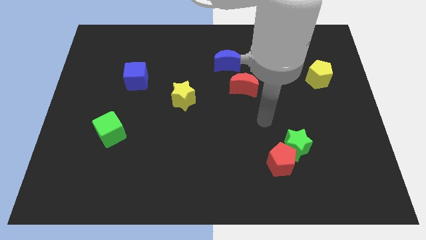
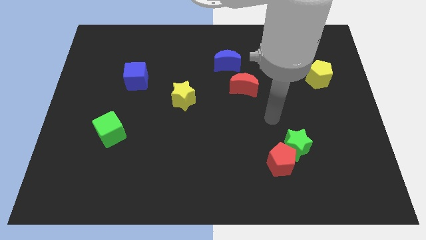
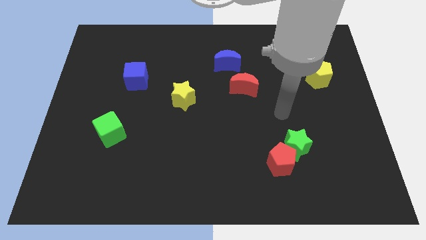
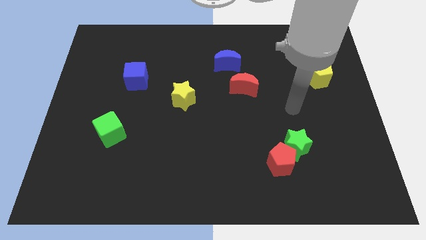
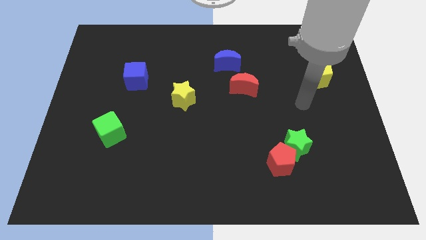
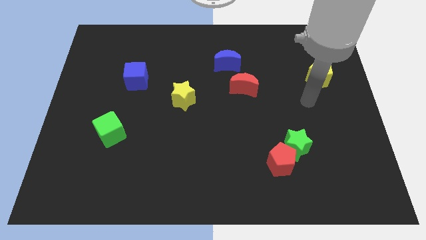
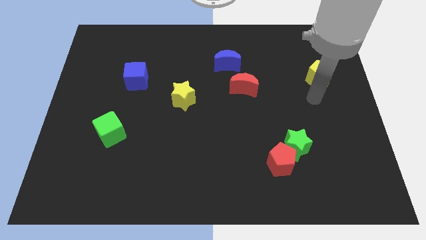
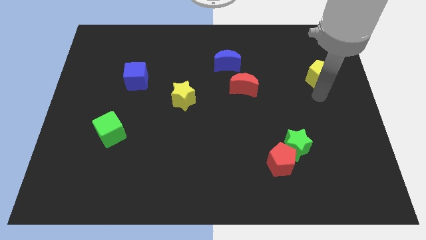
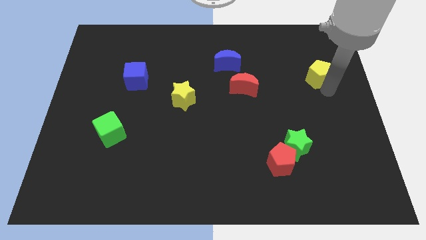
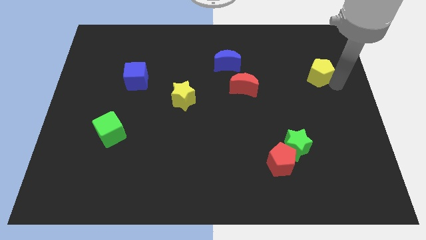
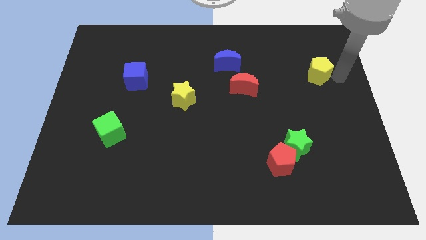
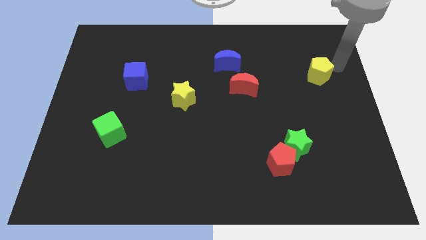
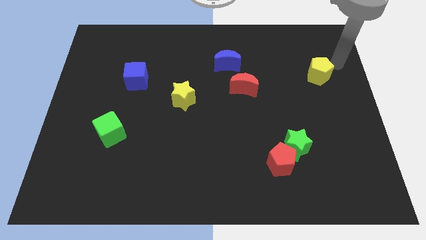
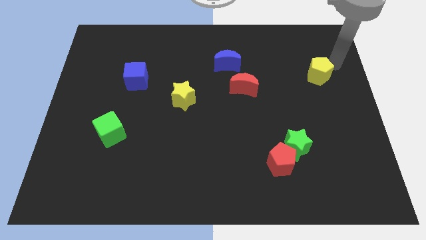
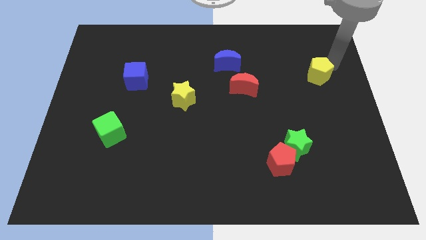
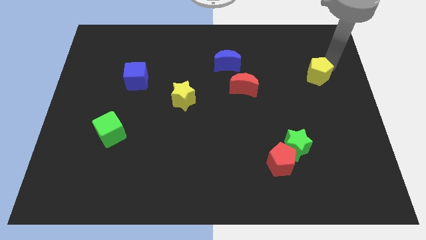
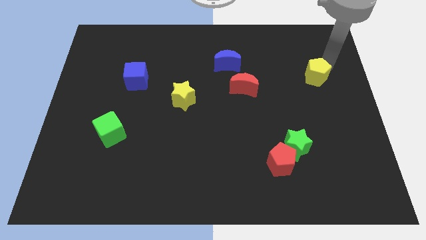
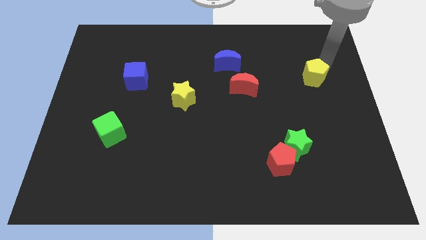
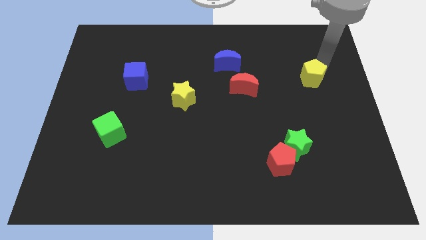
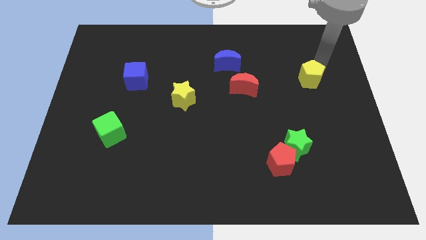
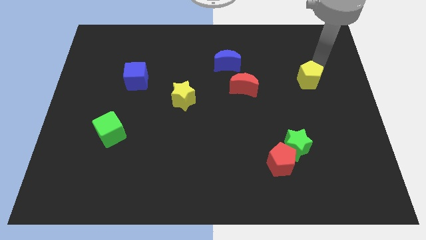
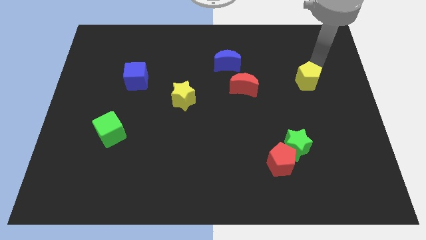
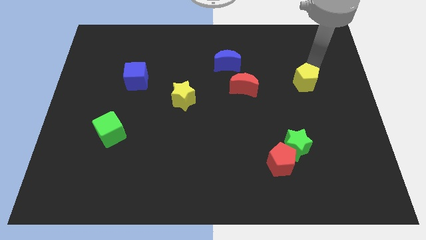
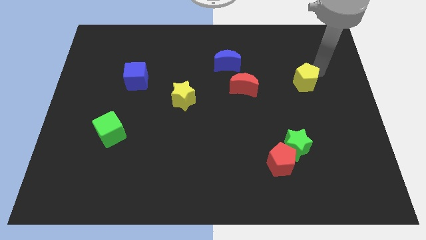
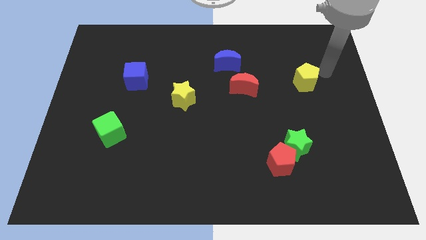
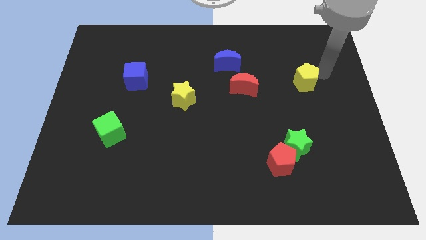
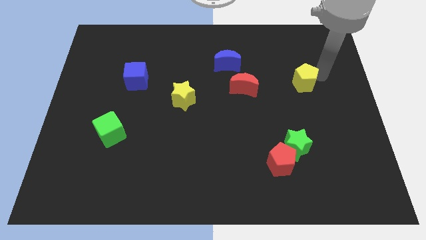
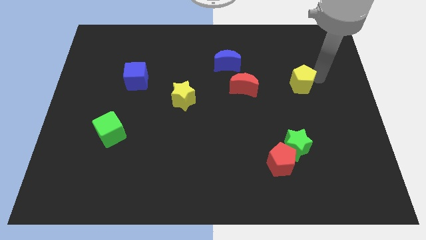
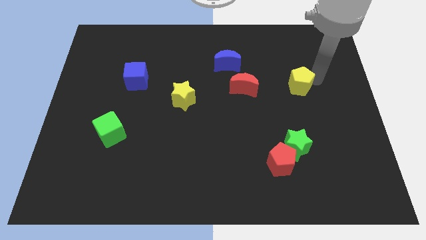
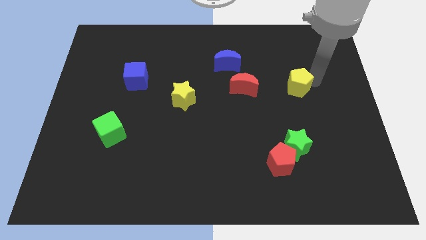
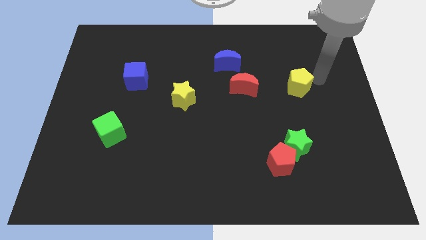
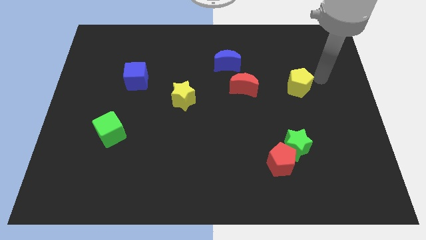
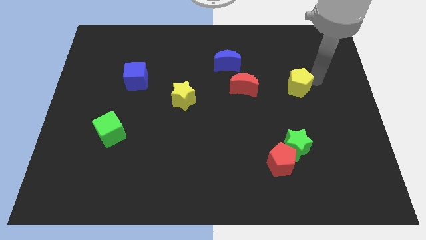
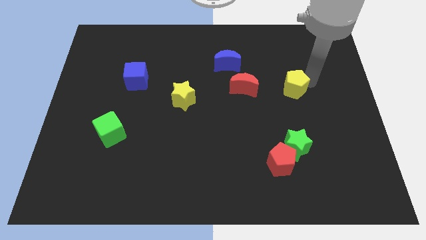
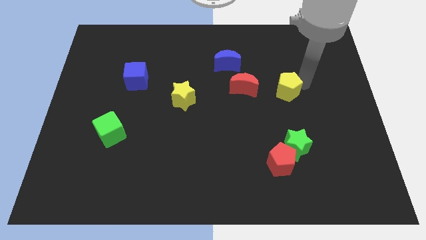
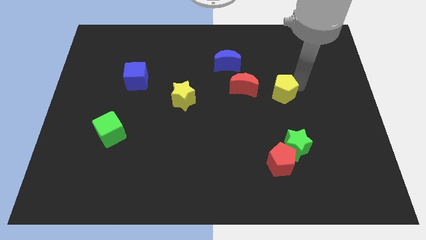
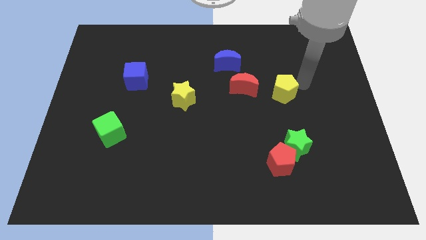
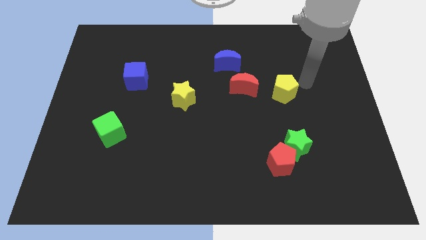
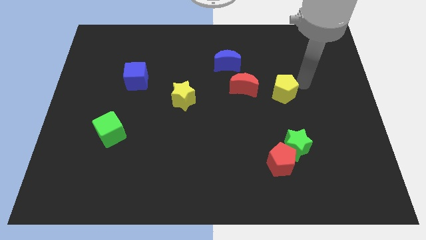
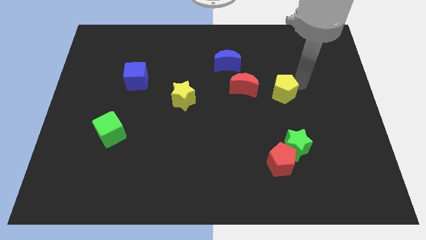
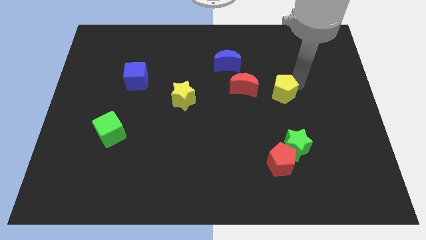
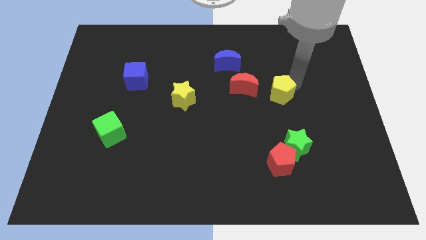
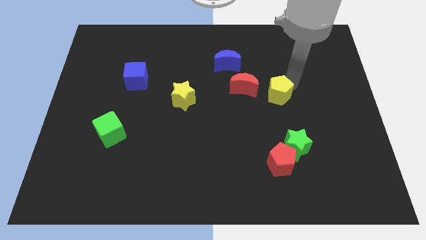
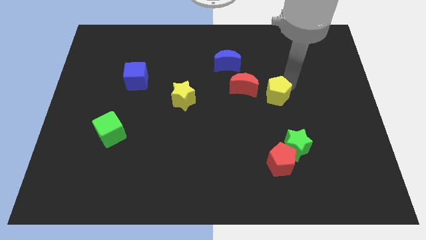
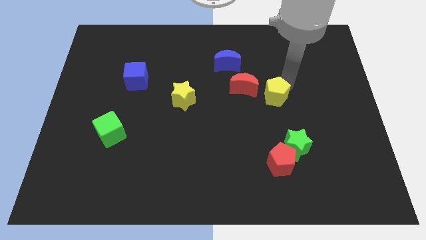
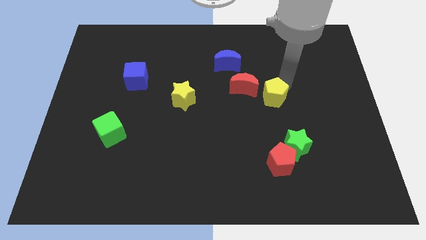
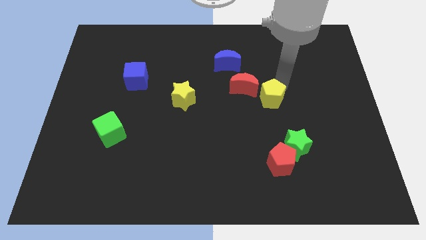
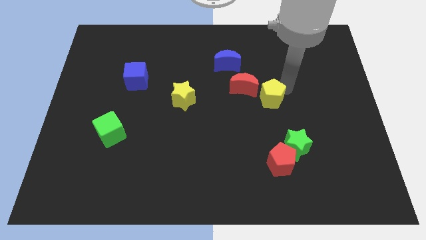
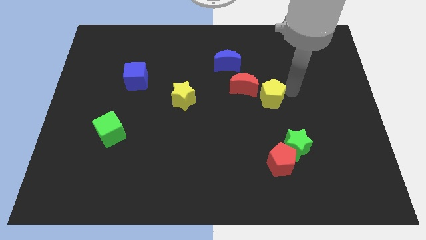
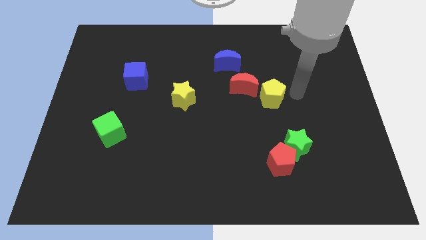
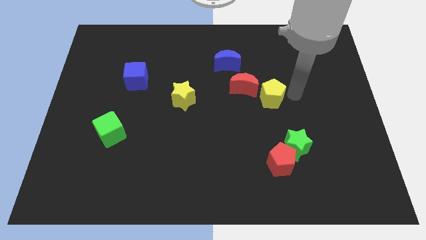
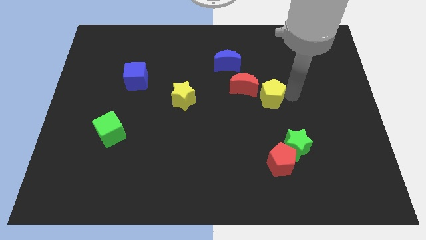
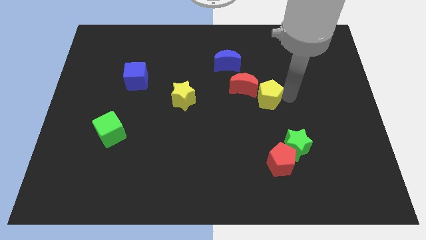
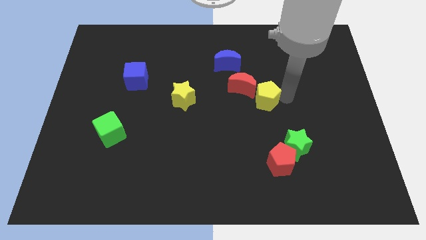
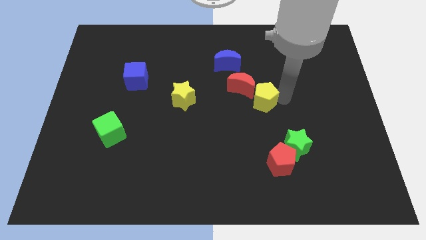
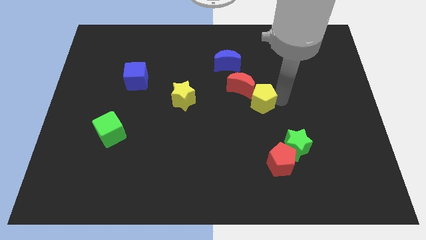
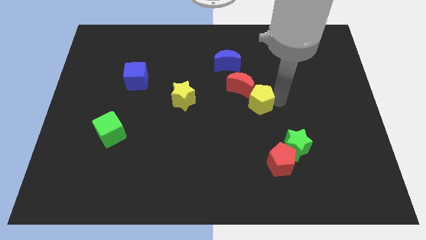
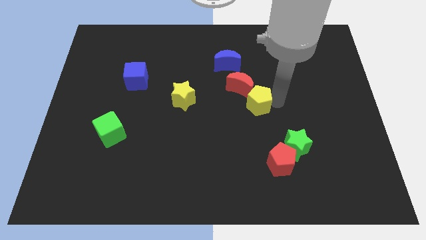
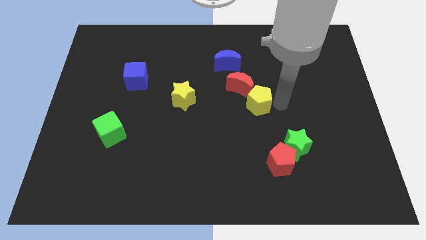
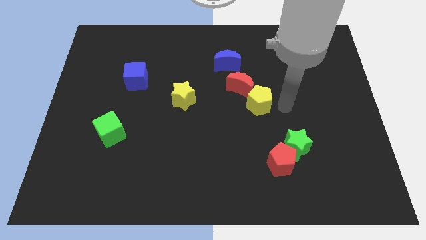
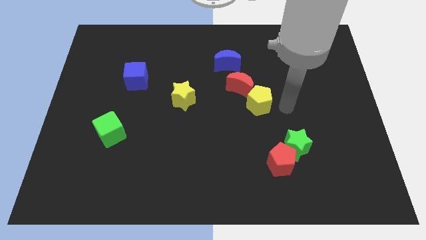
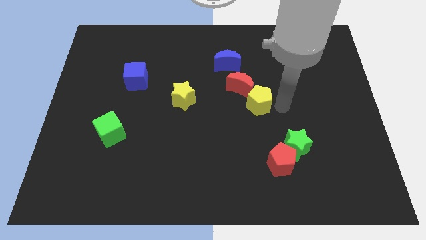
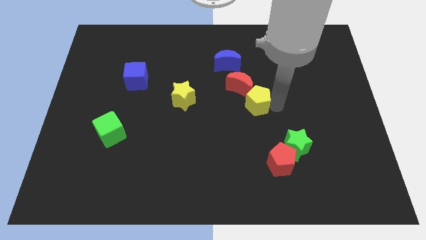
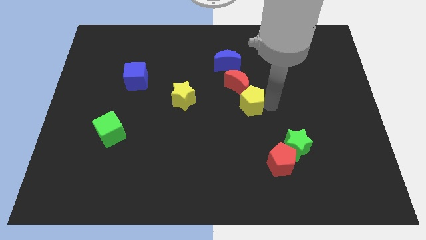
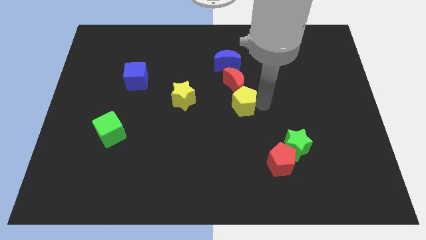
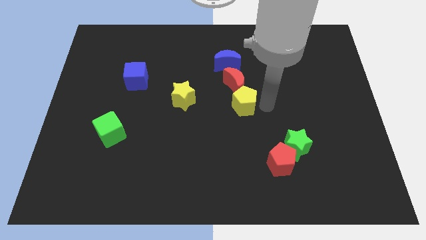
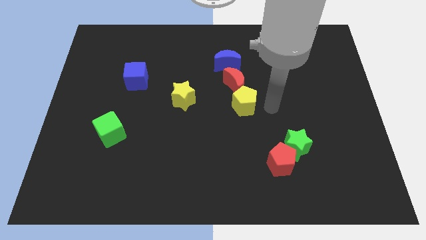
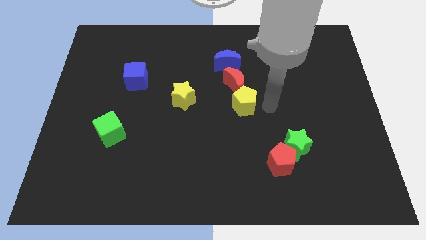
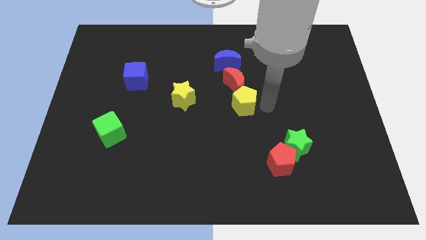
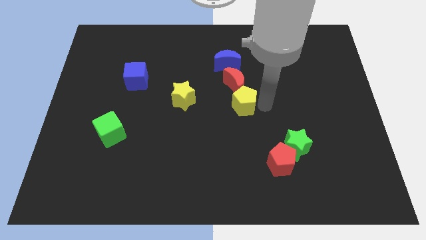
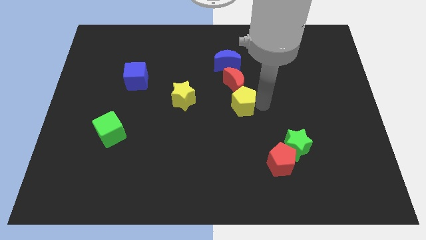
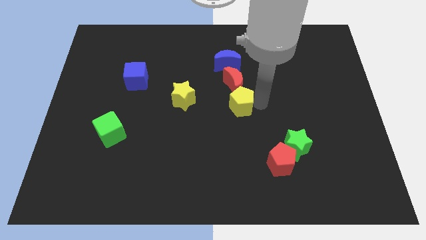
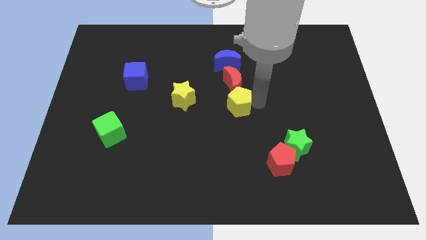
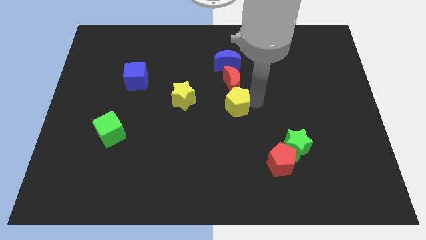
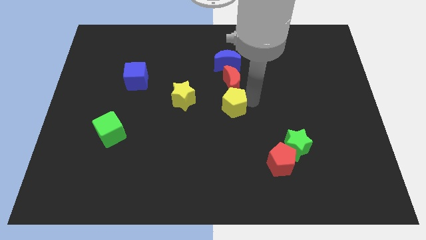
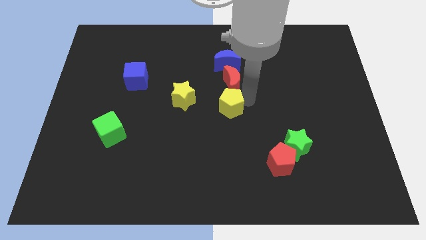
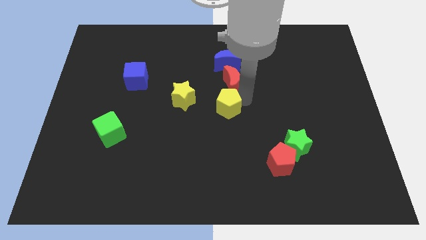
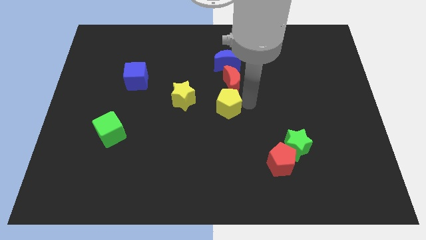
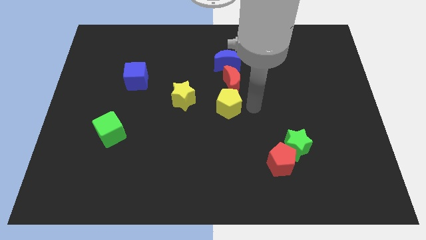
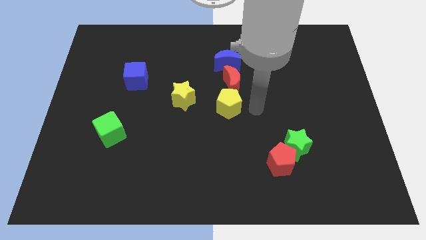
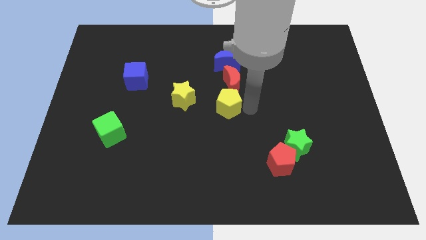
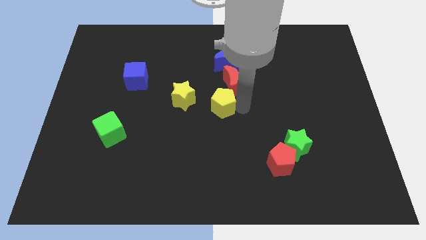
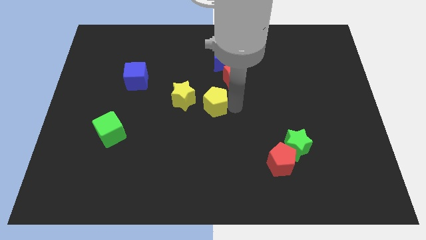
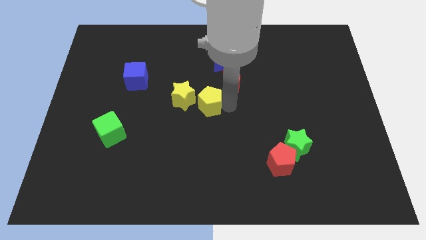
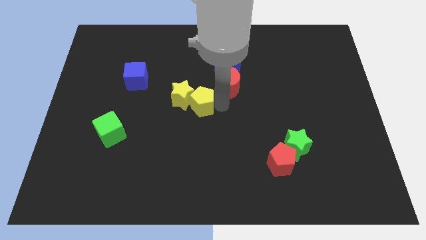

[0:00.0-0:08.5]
push the yellow pentagon to the yellow star
